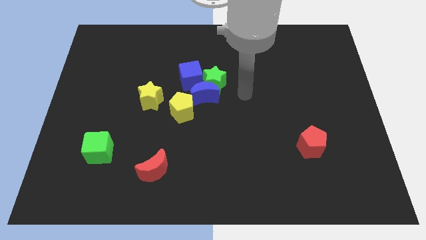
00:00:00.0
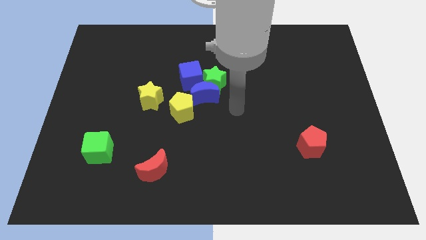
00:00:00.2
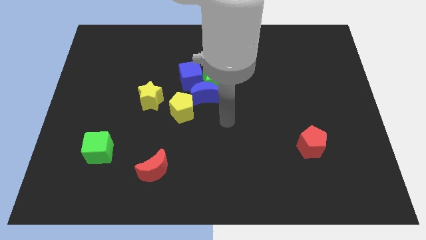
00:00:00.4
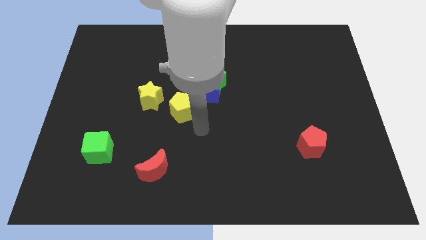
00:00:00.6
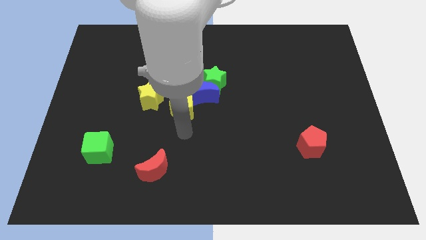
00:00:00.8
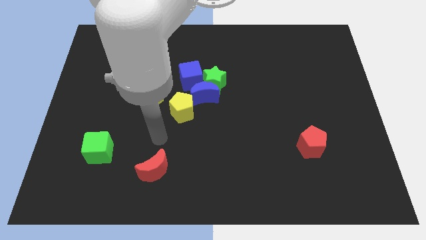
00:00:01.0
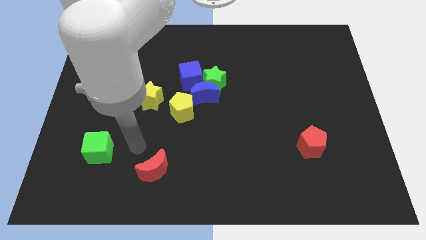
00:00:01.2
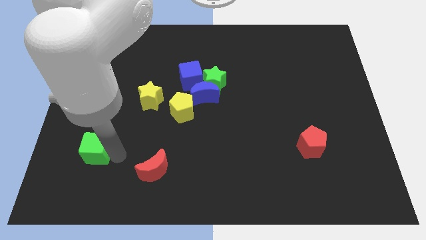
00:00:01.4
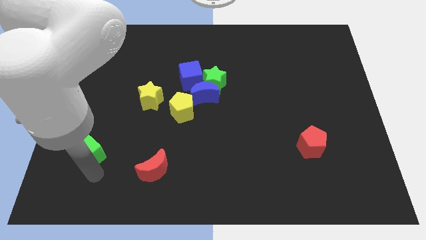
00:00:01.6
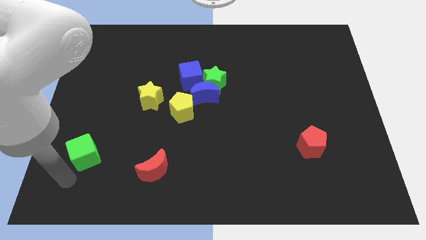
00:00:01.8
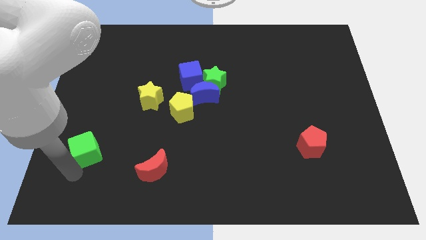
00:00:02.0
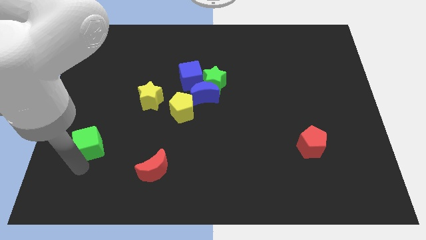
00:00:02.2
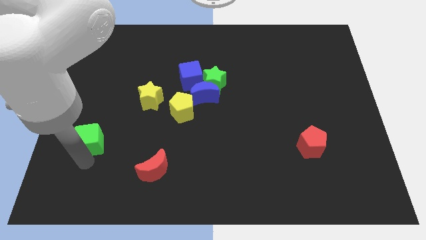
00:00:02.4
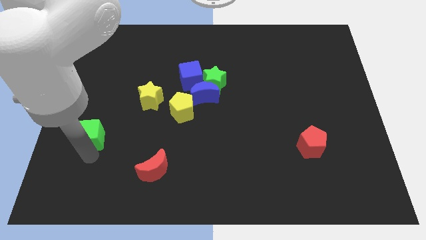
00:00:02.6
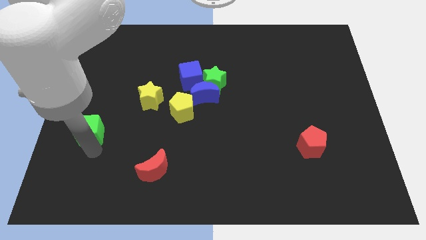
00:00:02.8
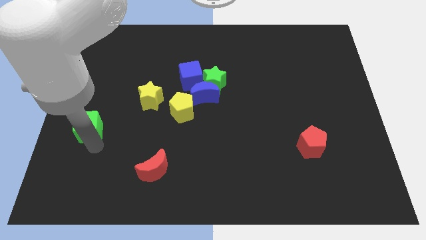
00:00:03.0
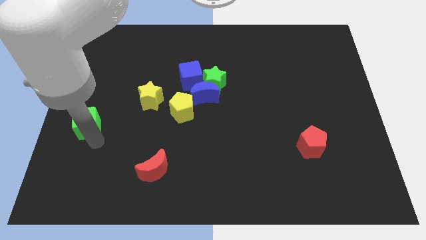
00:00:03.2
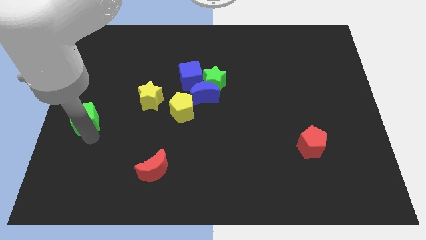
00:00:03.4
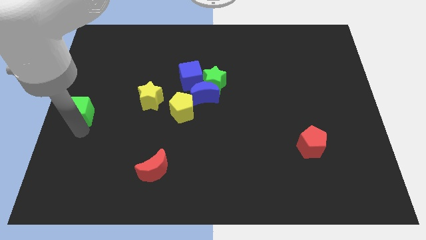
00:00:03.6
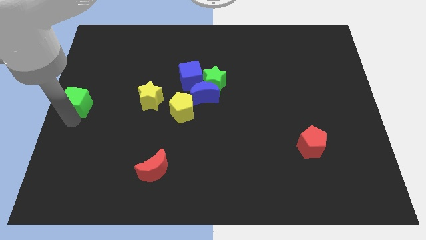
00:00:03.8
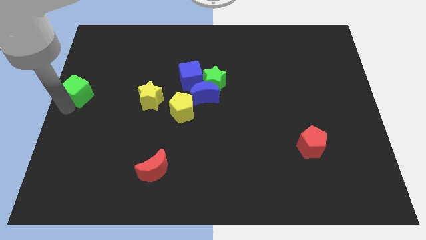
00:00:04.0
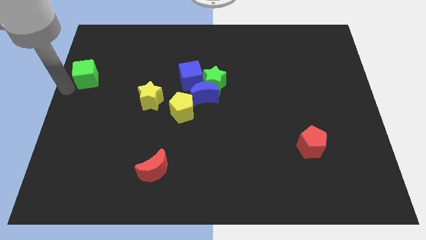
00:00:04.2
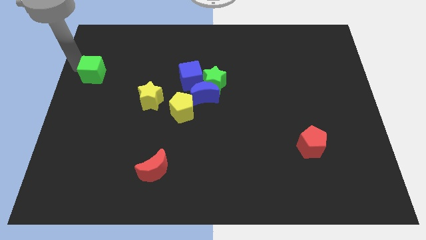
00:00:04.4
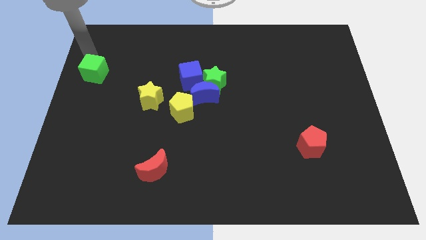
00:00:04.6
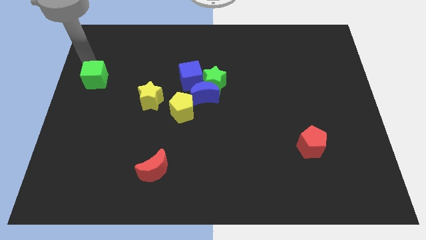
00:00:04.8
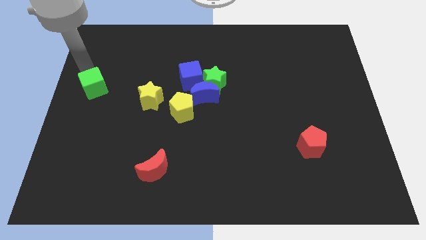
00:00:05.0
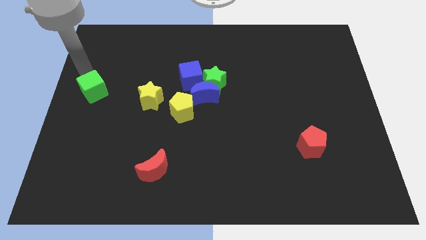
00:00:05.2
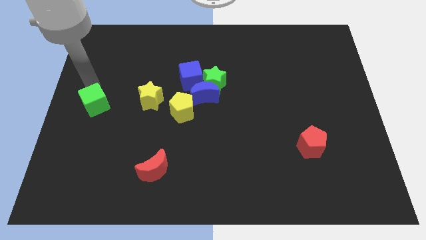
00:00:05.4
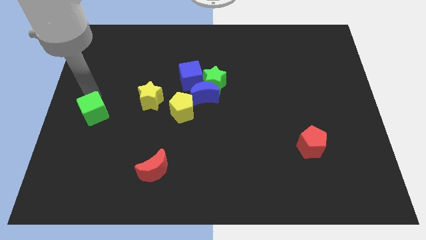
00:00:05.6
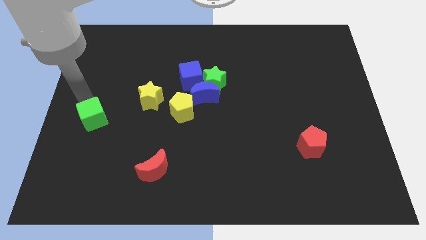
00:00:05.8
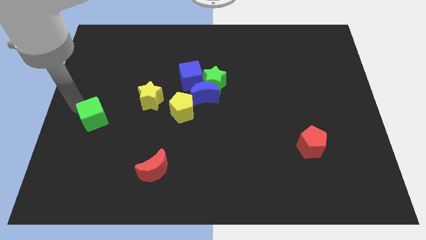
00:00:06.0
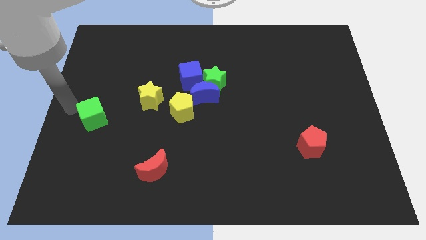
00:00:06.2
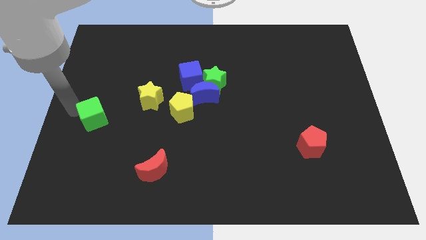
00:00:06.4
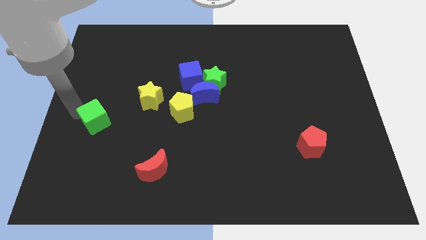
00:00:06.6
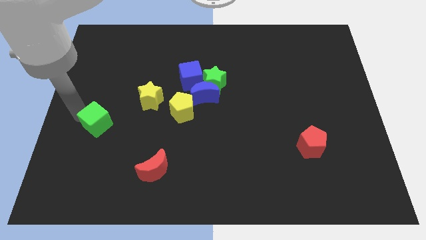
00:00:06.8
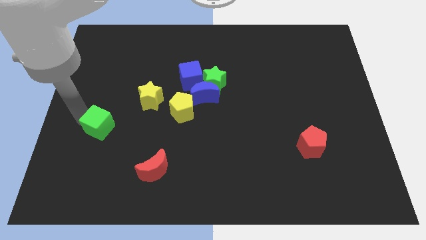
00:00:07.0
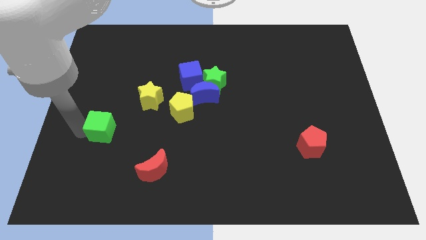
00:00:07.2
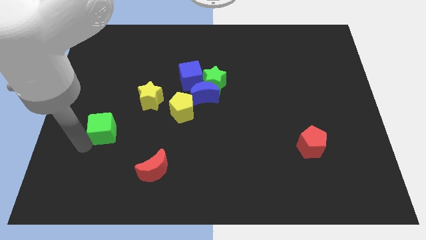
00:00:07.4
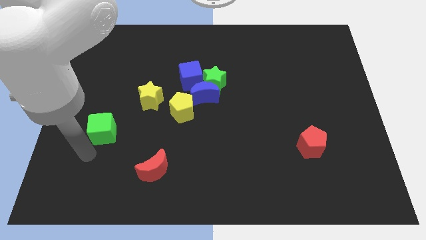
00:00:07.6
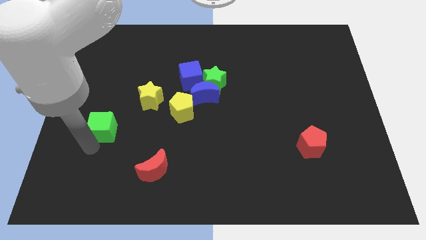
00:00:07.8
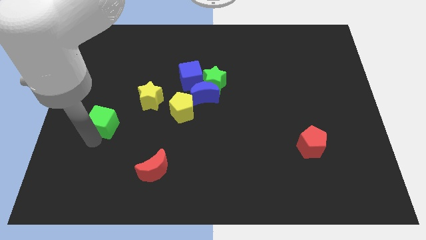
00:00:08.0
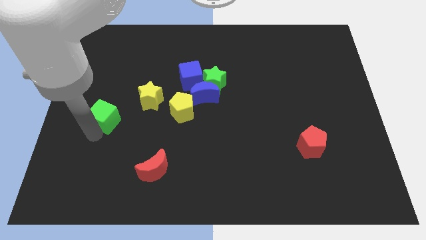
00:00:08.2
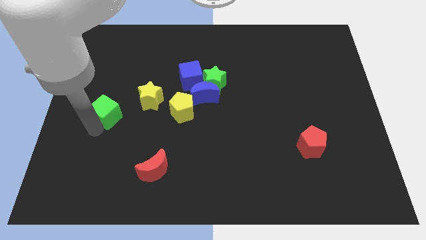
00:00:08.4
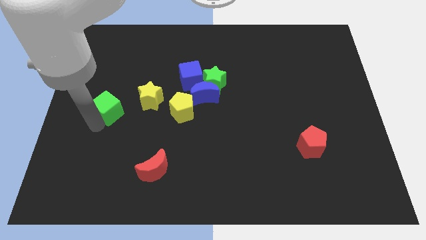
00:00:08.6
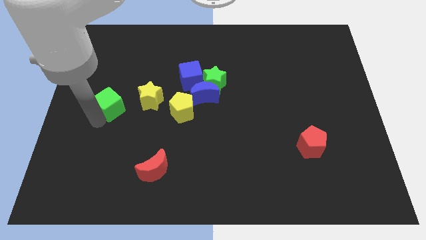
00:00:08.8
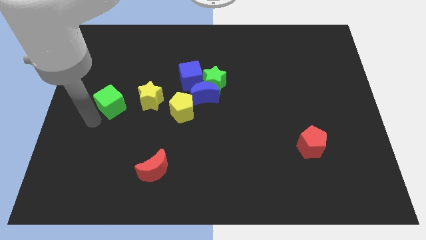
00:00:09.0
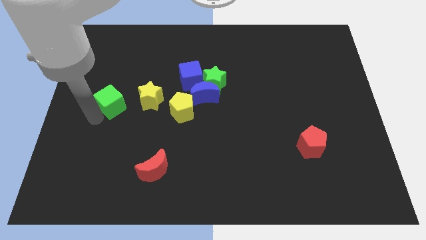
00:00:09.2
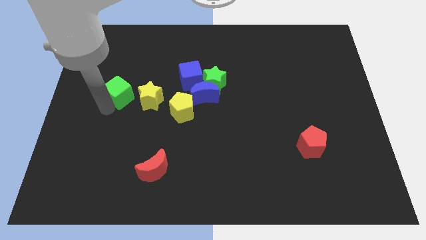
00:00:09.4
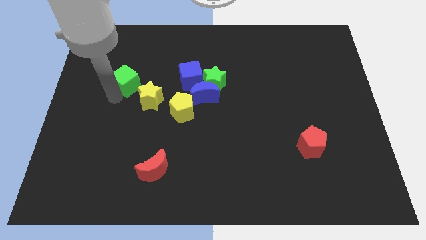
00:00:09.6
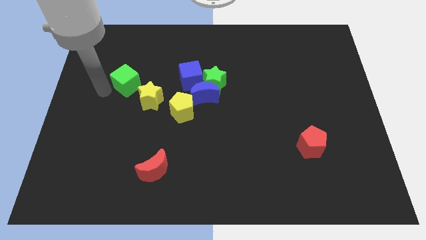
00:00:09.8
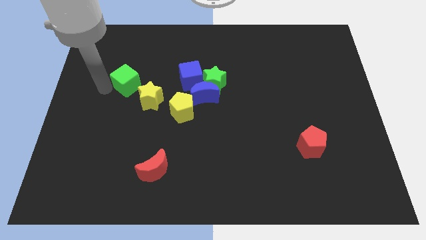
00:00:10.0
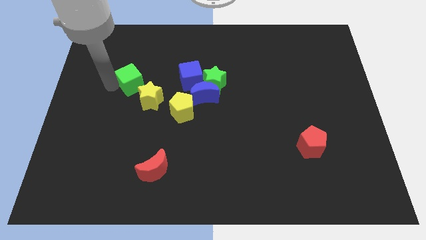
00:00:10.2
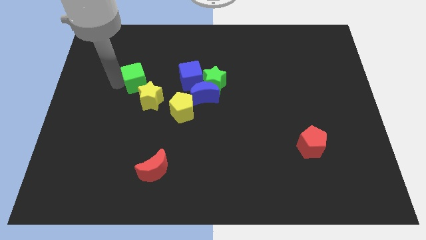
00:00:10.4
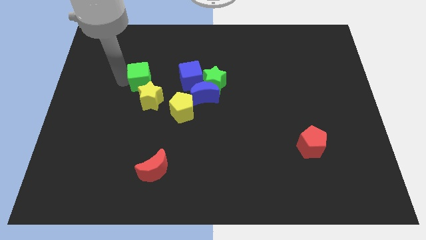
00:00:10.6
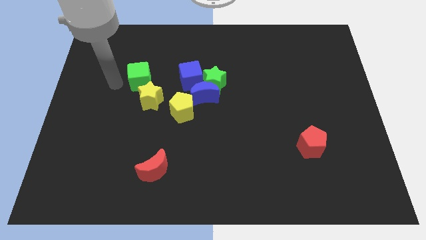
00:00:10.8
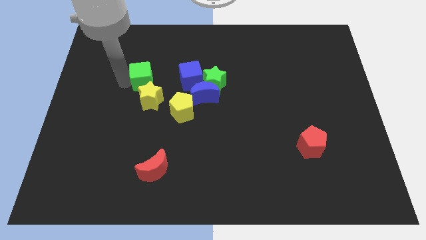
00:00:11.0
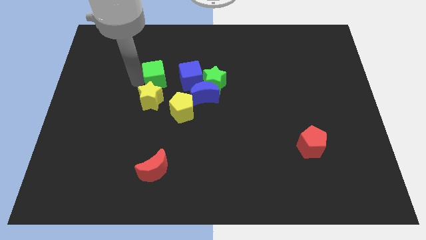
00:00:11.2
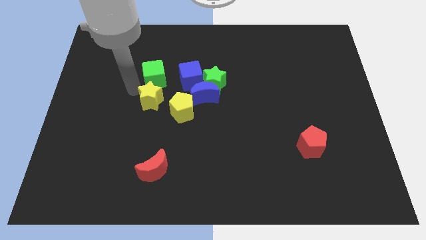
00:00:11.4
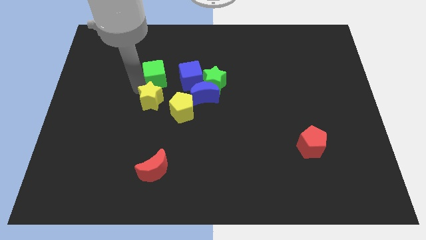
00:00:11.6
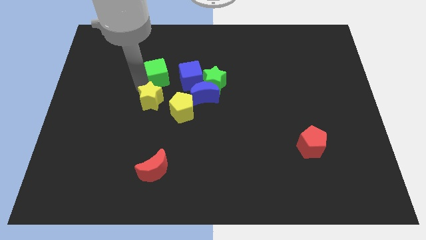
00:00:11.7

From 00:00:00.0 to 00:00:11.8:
move the green cube upwards and then right

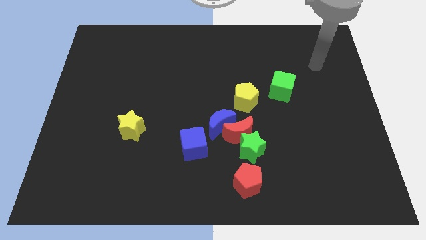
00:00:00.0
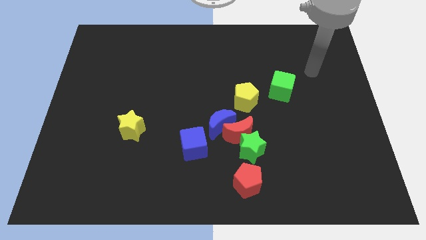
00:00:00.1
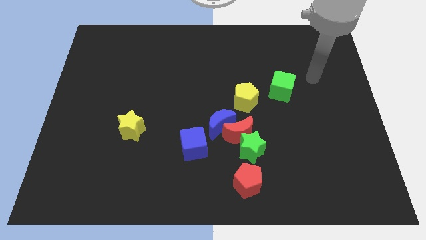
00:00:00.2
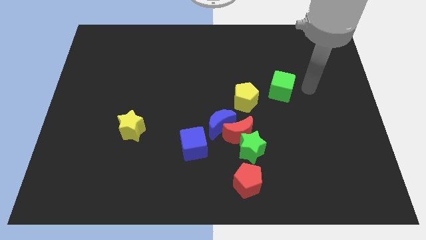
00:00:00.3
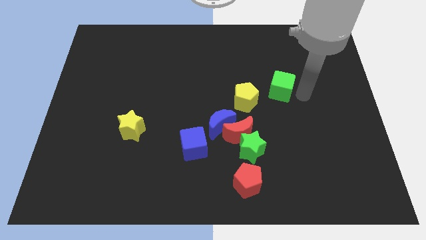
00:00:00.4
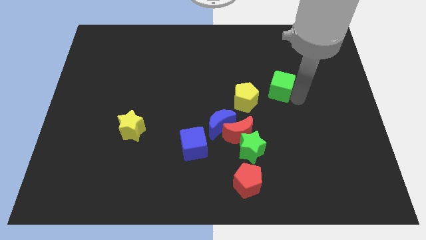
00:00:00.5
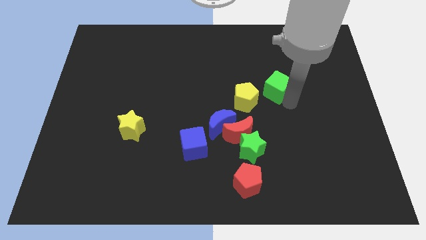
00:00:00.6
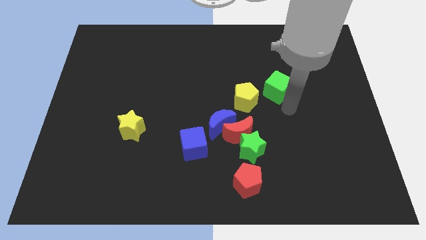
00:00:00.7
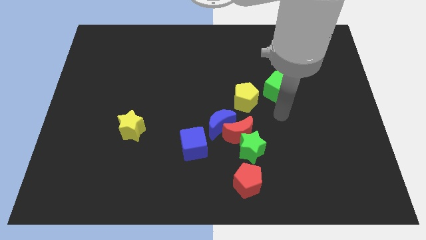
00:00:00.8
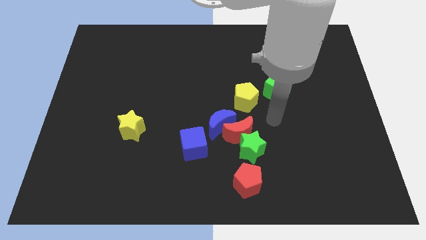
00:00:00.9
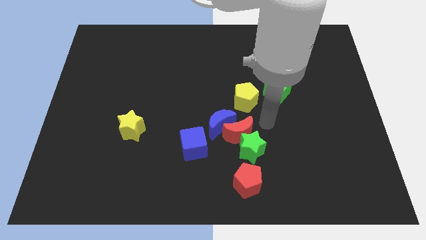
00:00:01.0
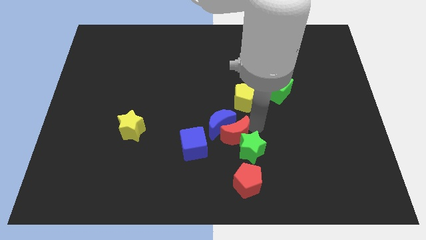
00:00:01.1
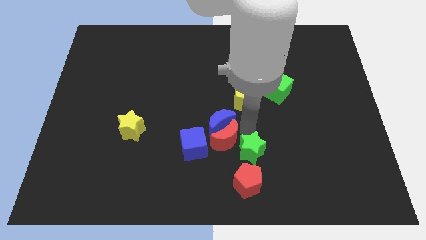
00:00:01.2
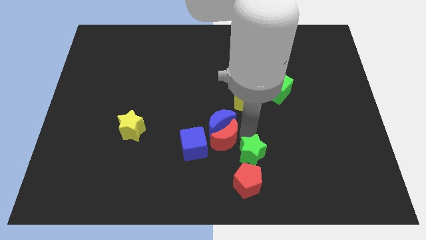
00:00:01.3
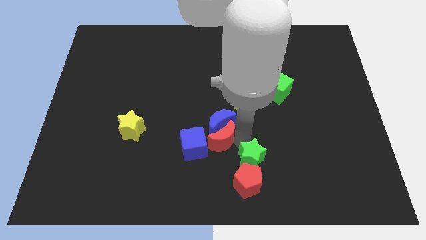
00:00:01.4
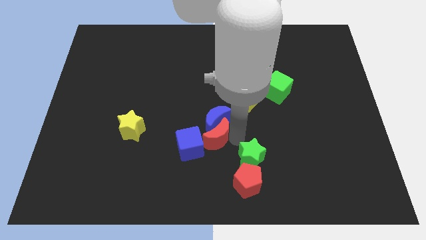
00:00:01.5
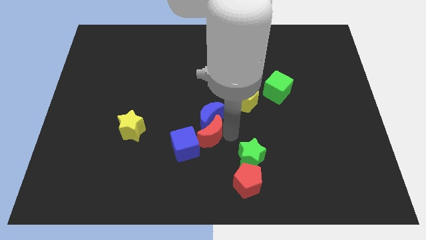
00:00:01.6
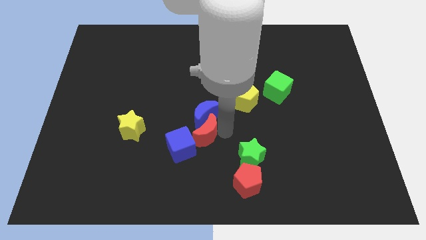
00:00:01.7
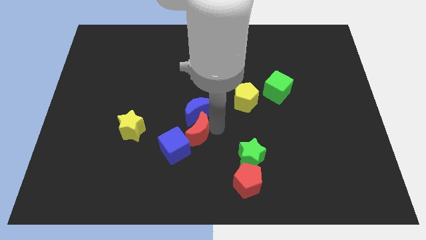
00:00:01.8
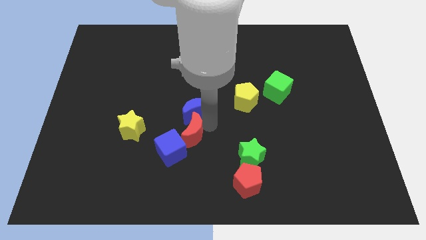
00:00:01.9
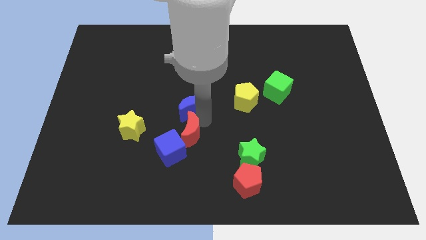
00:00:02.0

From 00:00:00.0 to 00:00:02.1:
slide the blue moon diagonally up and left a bit
